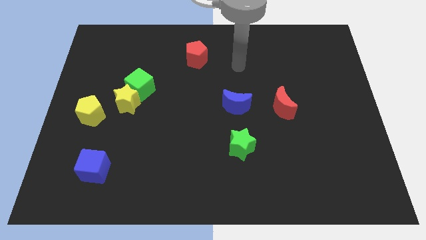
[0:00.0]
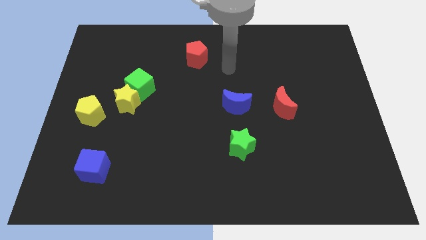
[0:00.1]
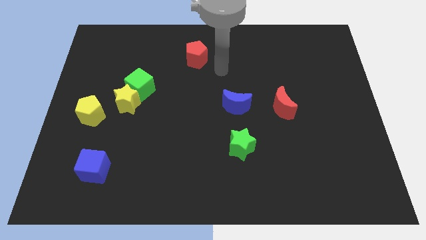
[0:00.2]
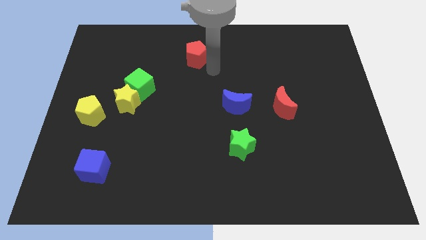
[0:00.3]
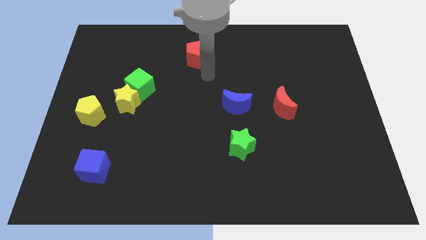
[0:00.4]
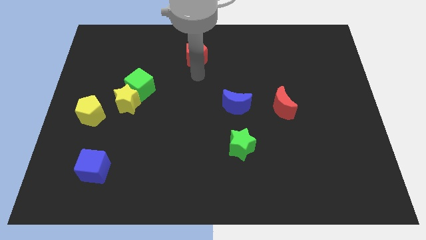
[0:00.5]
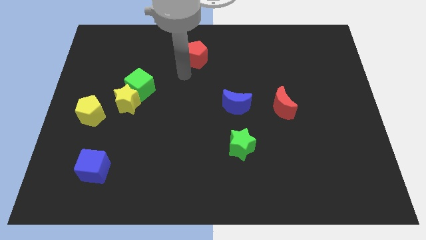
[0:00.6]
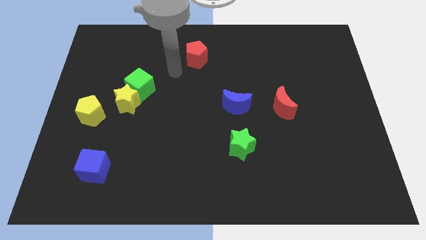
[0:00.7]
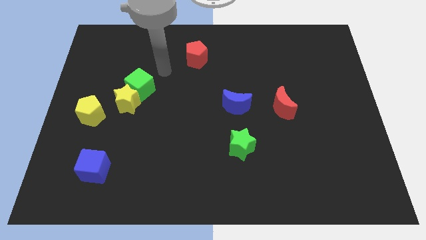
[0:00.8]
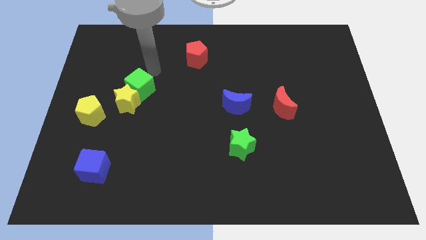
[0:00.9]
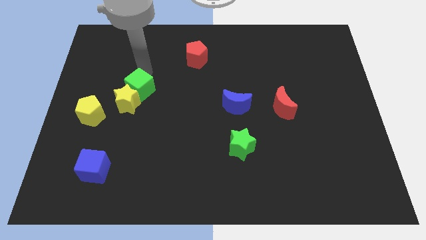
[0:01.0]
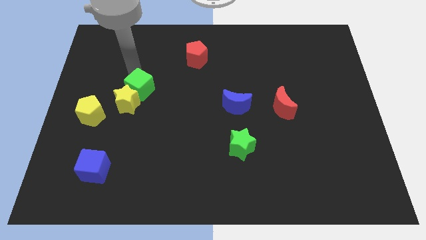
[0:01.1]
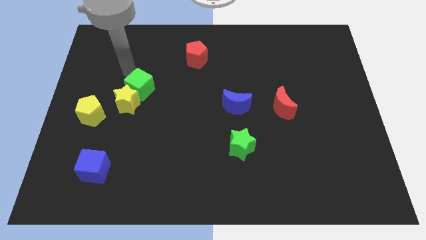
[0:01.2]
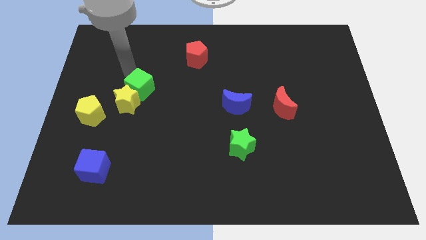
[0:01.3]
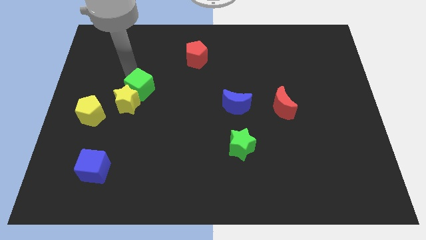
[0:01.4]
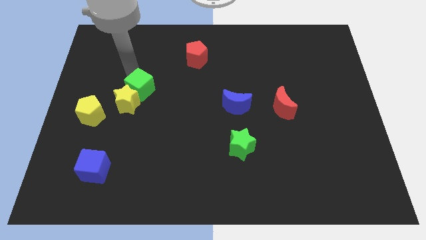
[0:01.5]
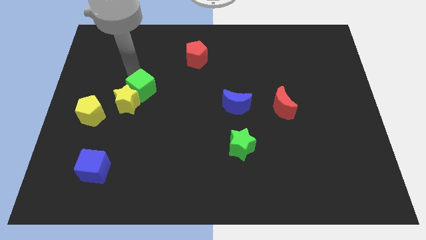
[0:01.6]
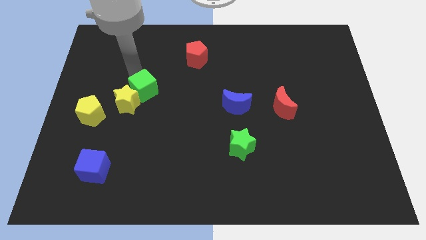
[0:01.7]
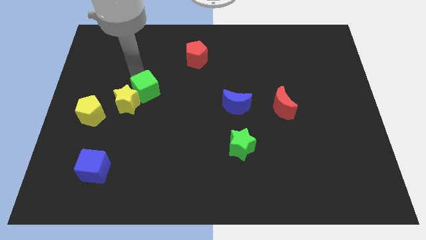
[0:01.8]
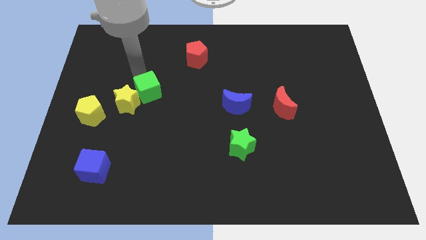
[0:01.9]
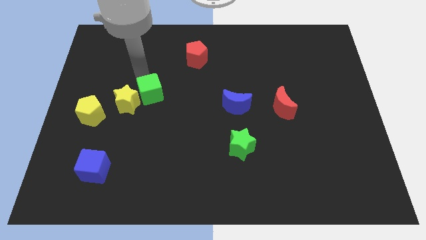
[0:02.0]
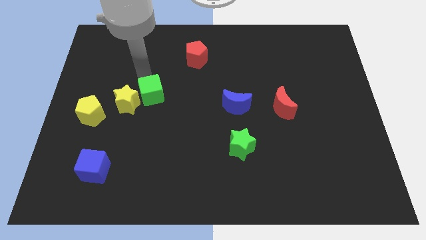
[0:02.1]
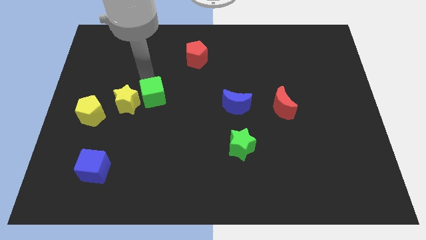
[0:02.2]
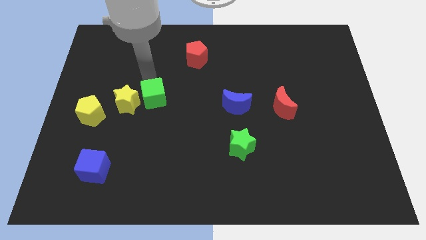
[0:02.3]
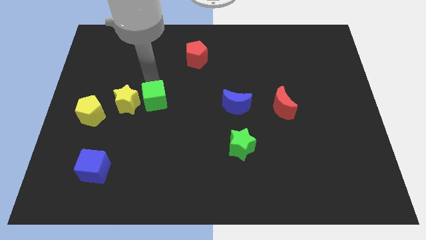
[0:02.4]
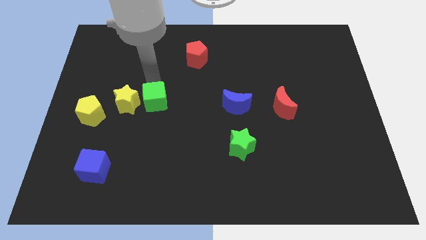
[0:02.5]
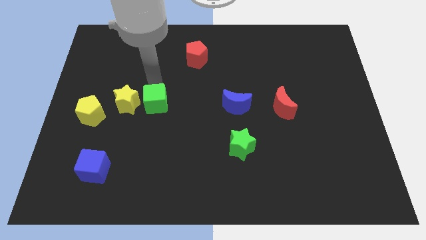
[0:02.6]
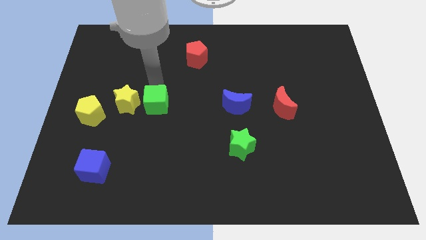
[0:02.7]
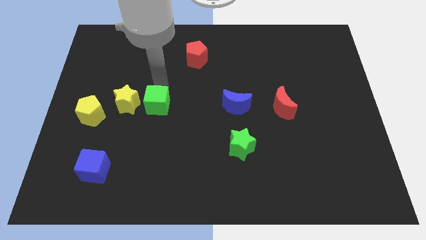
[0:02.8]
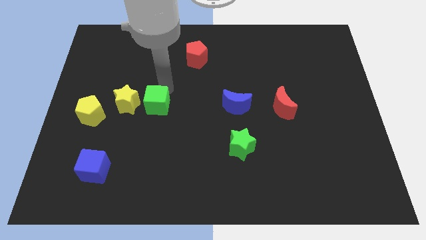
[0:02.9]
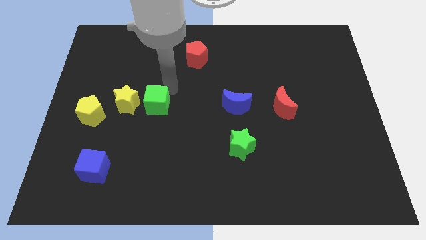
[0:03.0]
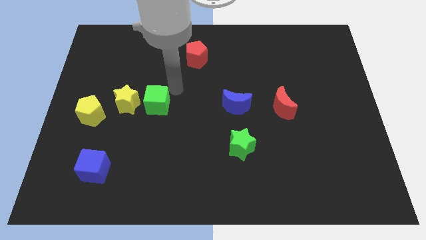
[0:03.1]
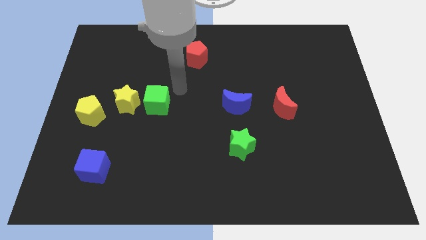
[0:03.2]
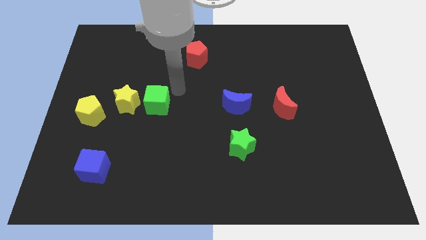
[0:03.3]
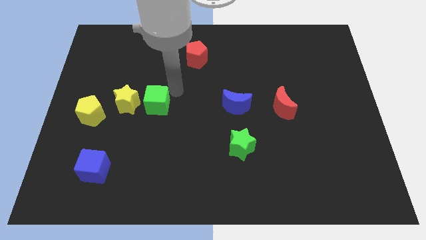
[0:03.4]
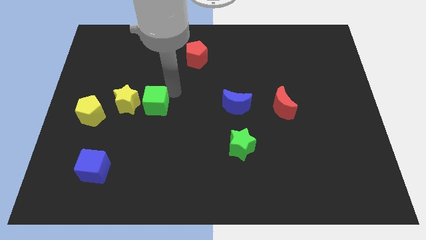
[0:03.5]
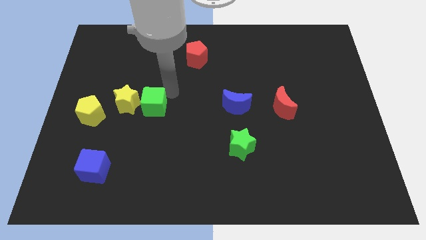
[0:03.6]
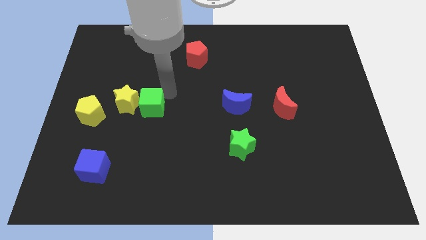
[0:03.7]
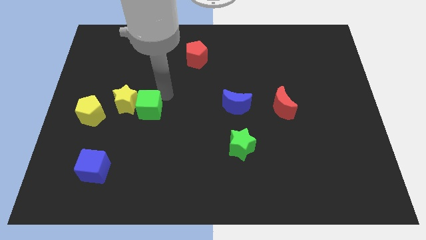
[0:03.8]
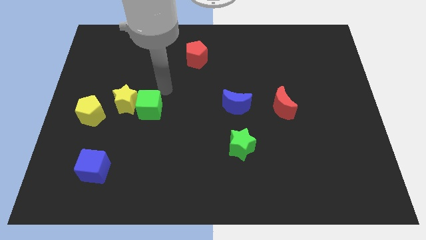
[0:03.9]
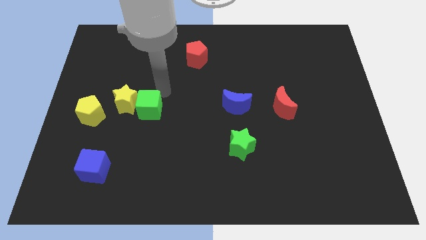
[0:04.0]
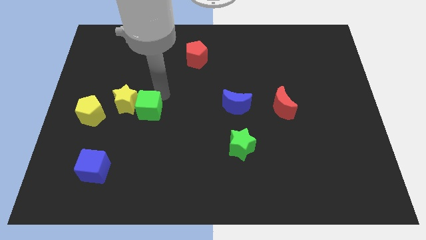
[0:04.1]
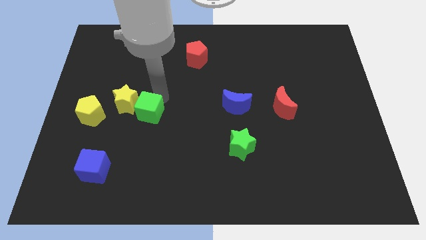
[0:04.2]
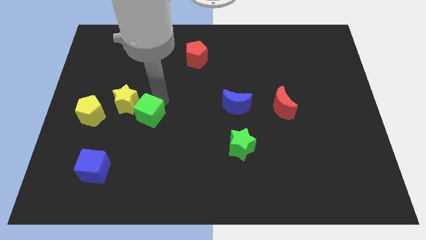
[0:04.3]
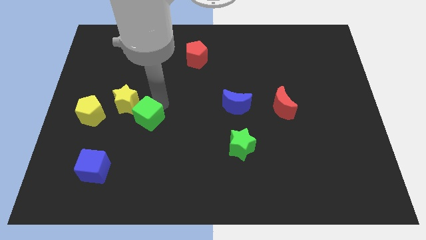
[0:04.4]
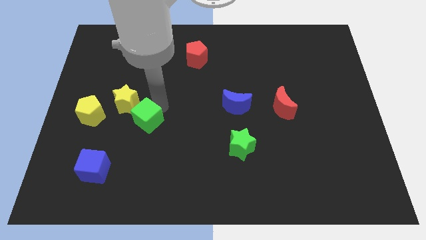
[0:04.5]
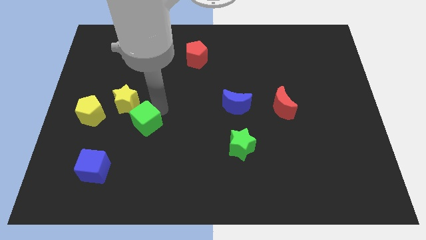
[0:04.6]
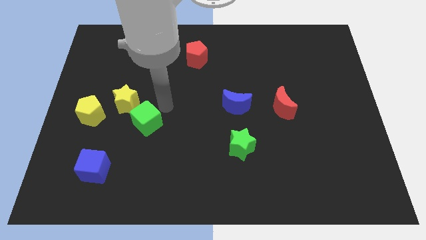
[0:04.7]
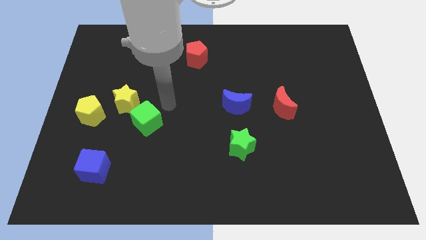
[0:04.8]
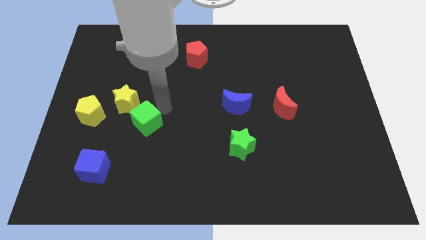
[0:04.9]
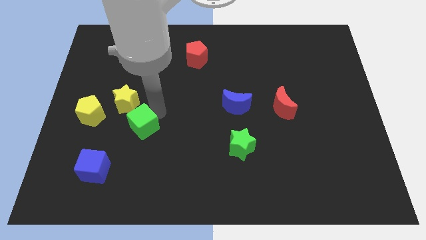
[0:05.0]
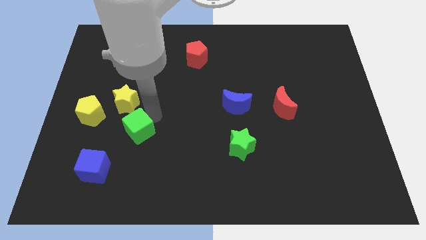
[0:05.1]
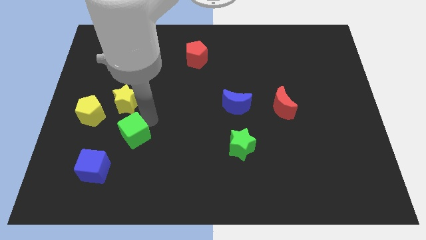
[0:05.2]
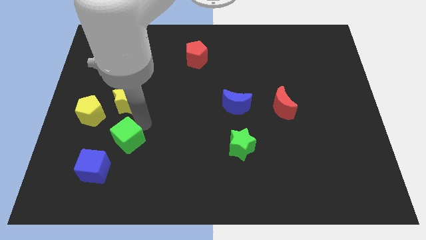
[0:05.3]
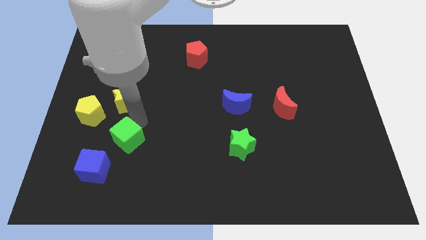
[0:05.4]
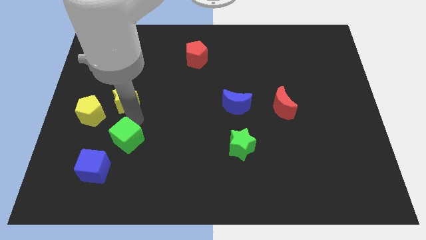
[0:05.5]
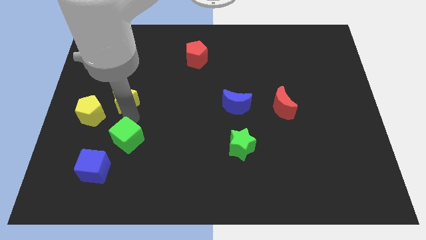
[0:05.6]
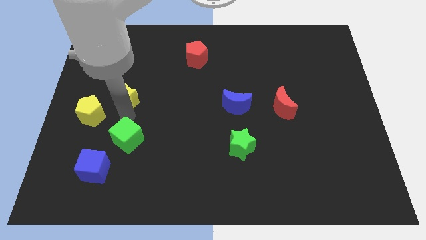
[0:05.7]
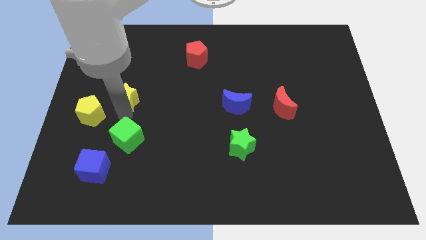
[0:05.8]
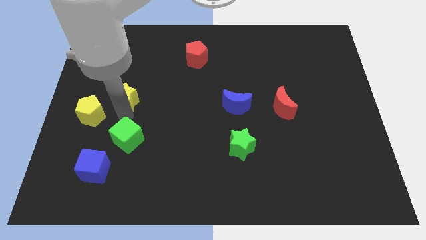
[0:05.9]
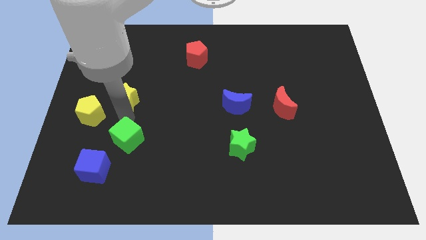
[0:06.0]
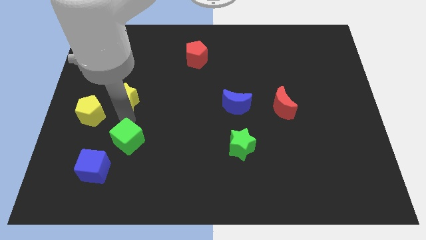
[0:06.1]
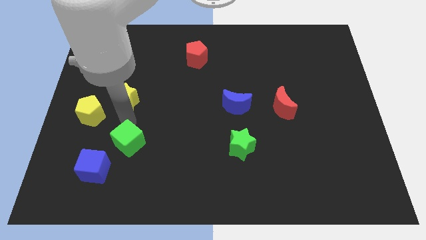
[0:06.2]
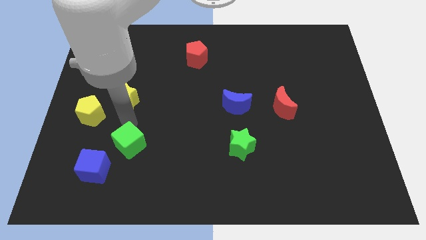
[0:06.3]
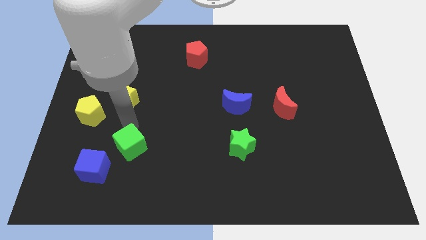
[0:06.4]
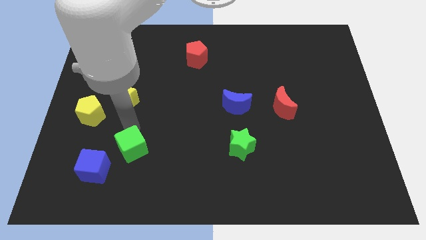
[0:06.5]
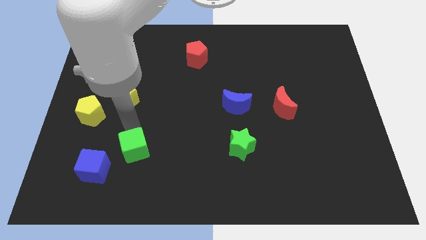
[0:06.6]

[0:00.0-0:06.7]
slide the green cube to the right of the blue cube

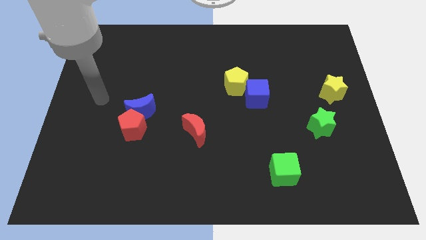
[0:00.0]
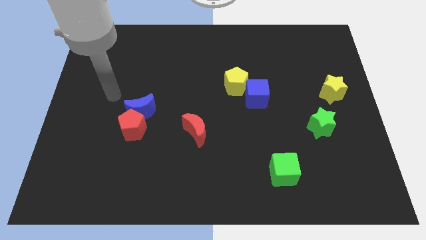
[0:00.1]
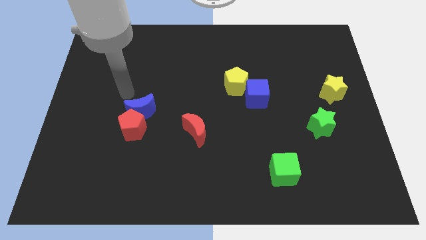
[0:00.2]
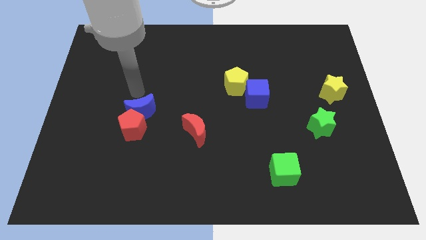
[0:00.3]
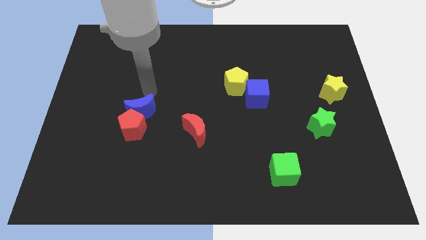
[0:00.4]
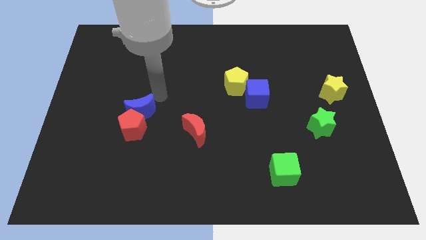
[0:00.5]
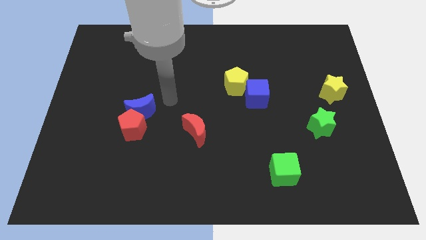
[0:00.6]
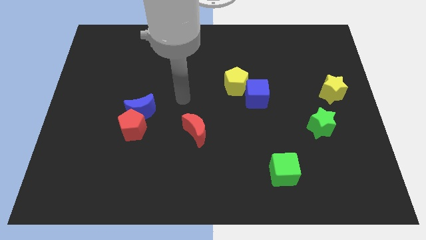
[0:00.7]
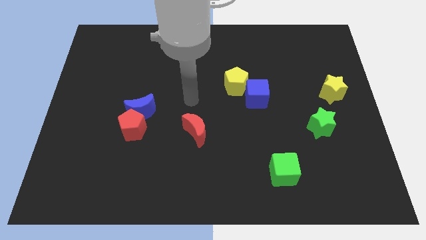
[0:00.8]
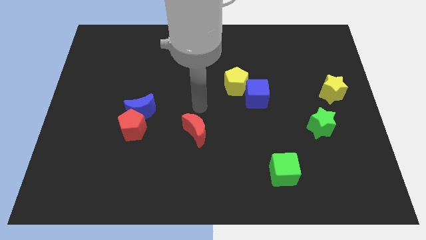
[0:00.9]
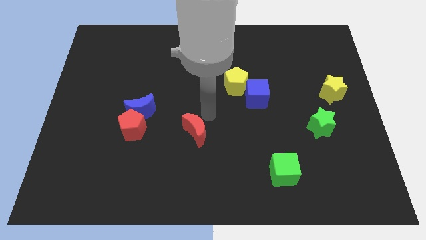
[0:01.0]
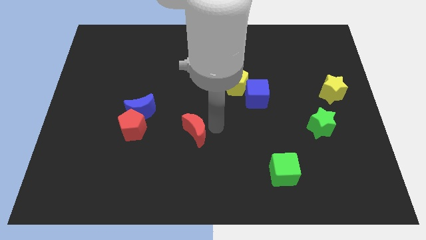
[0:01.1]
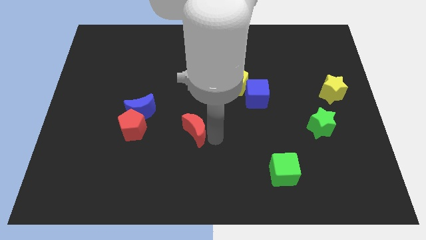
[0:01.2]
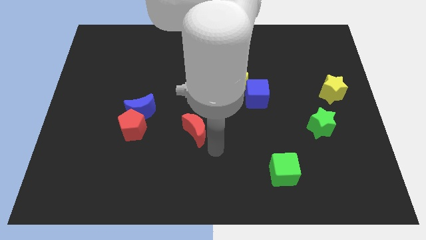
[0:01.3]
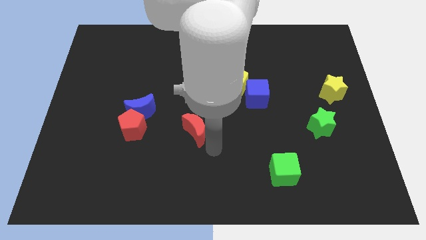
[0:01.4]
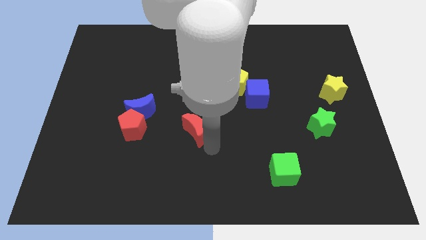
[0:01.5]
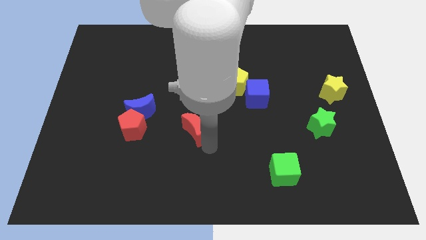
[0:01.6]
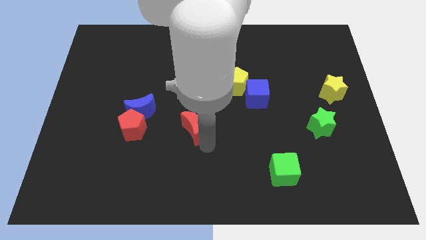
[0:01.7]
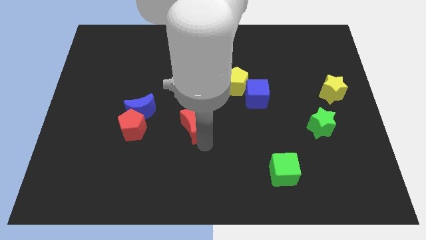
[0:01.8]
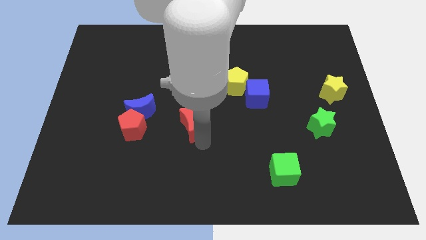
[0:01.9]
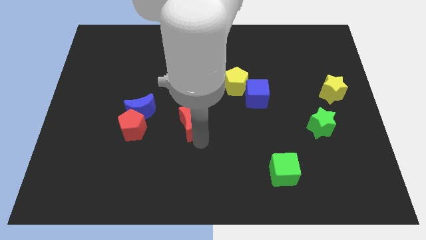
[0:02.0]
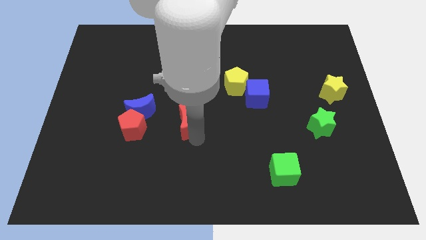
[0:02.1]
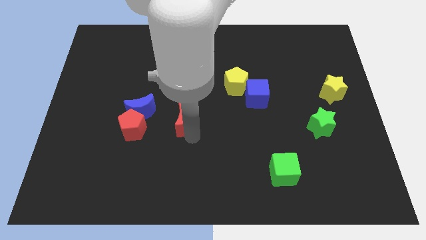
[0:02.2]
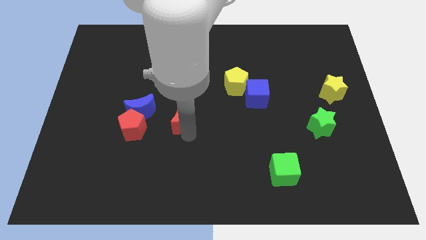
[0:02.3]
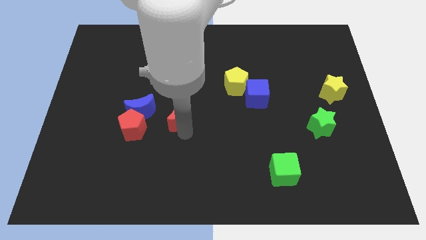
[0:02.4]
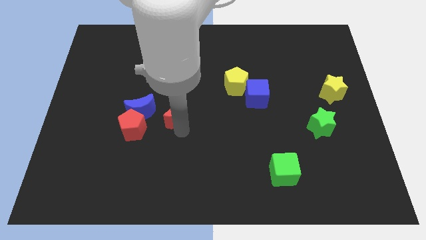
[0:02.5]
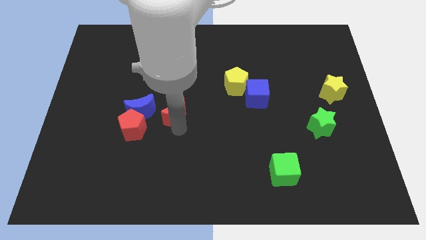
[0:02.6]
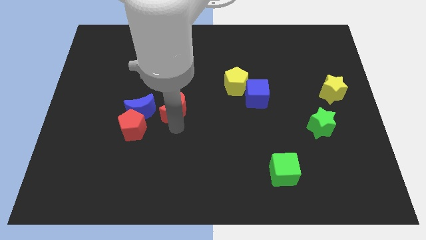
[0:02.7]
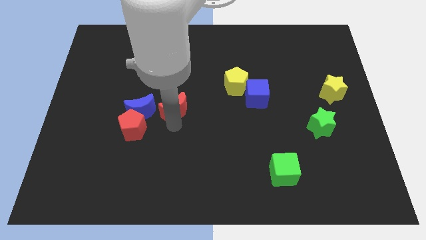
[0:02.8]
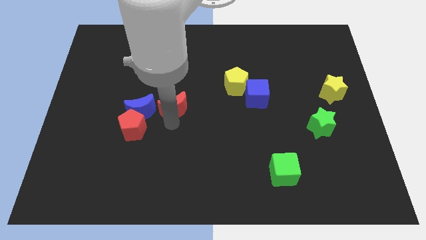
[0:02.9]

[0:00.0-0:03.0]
move the red moon to the top right side of the blue moon
